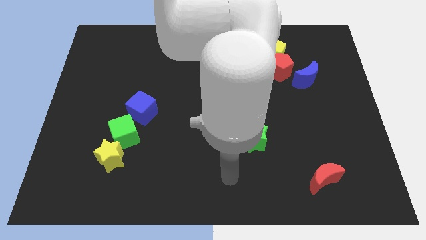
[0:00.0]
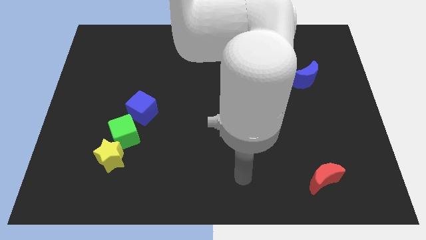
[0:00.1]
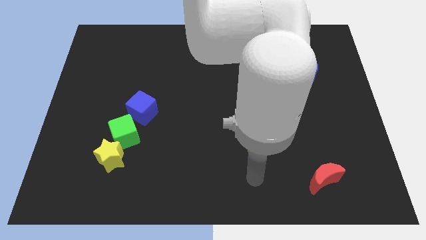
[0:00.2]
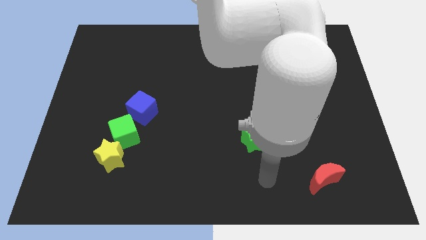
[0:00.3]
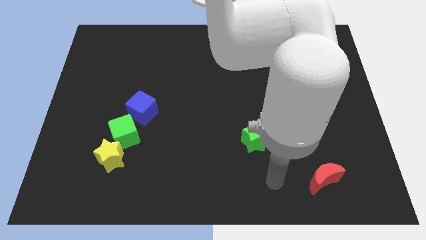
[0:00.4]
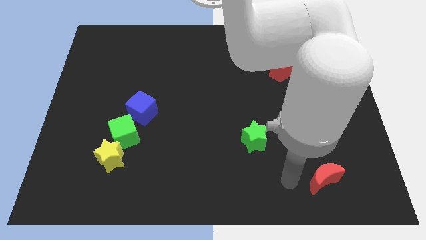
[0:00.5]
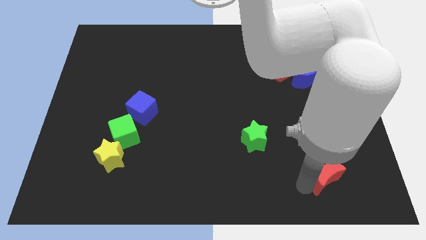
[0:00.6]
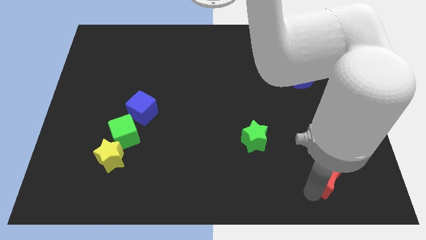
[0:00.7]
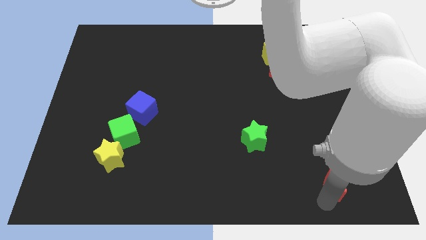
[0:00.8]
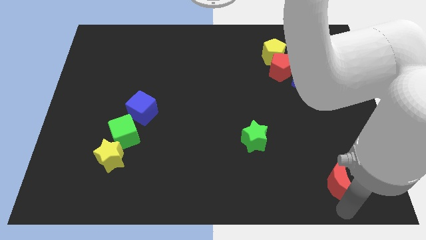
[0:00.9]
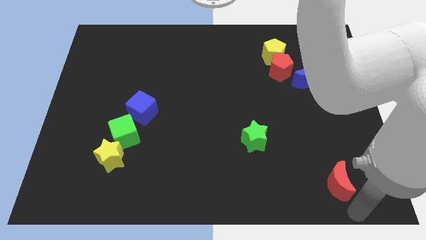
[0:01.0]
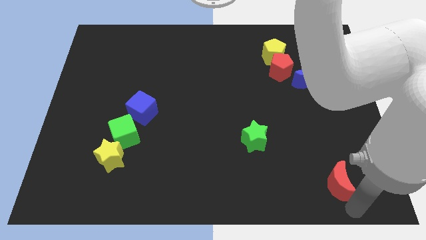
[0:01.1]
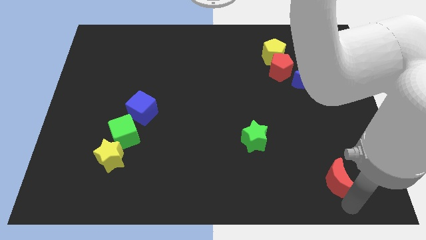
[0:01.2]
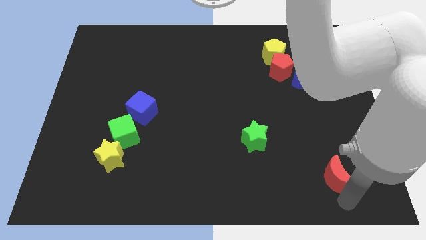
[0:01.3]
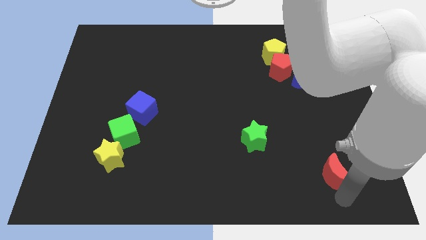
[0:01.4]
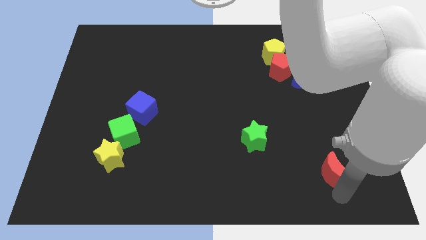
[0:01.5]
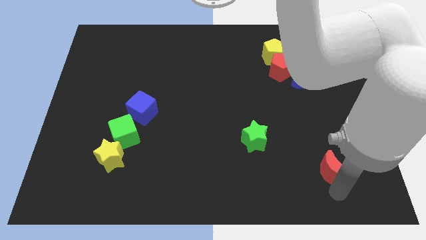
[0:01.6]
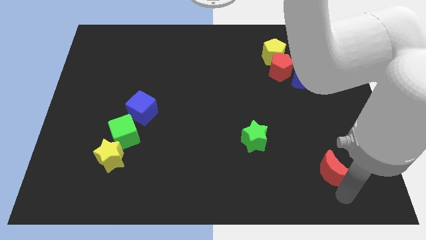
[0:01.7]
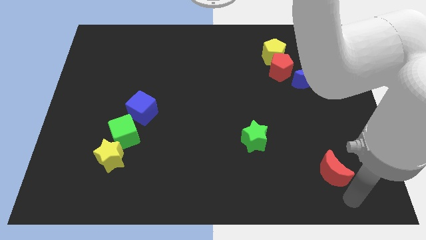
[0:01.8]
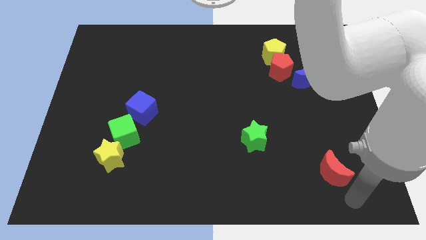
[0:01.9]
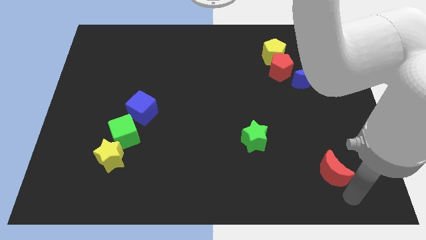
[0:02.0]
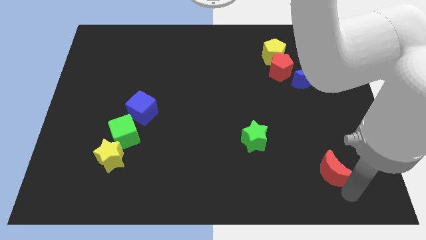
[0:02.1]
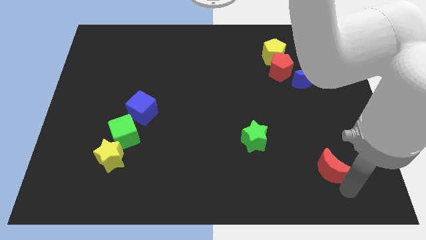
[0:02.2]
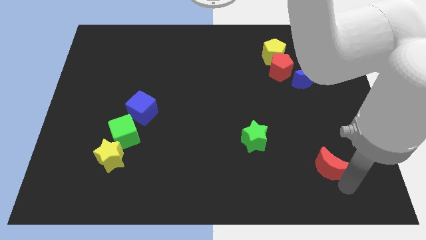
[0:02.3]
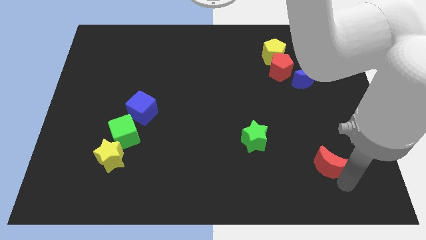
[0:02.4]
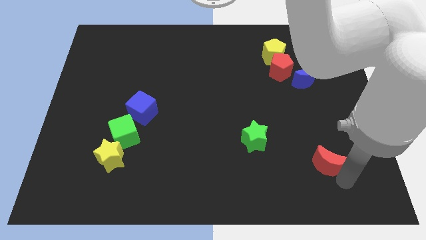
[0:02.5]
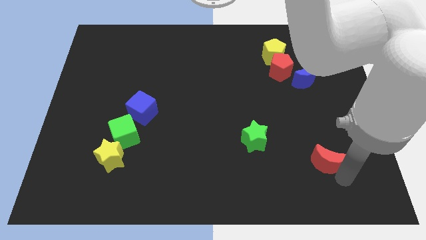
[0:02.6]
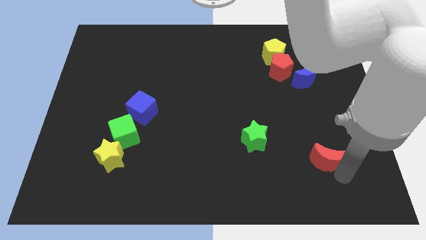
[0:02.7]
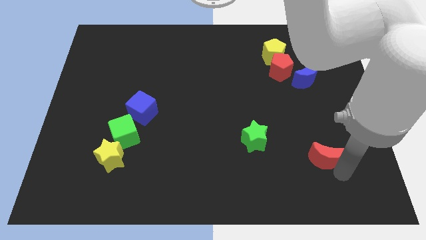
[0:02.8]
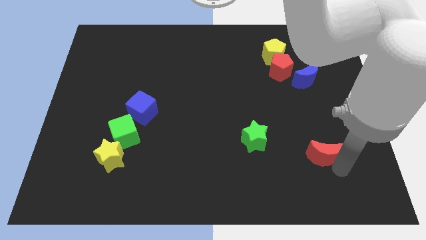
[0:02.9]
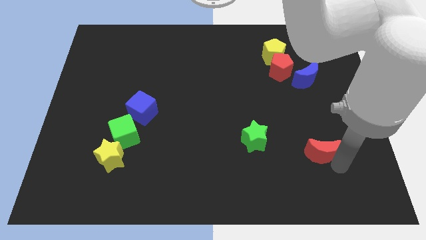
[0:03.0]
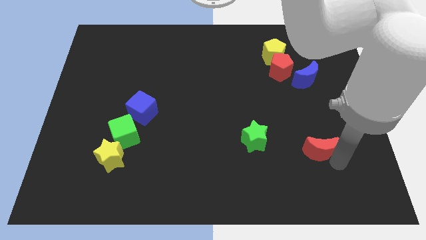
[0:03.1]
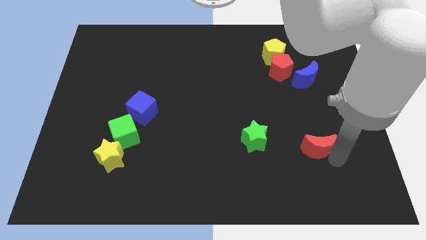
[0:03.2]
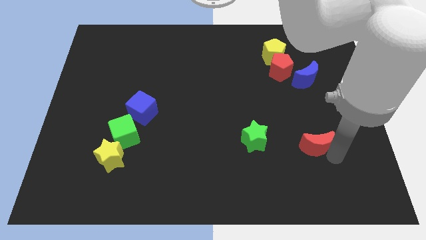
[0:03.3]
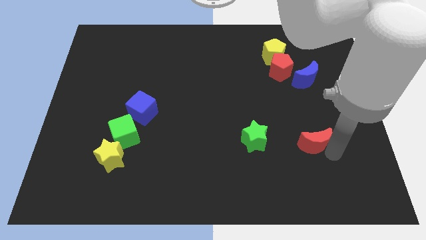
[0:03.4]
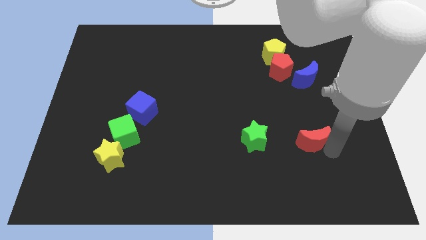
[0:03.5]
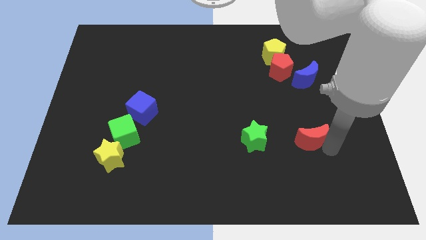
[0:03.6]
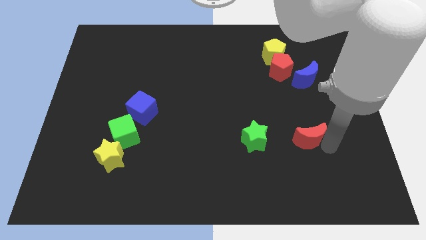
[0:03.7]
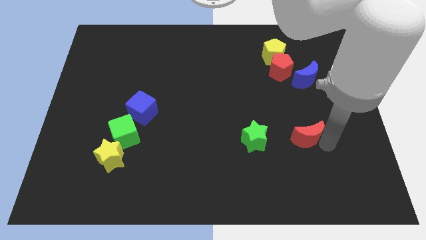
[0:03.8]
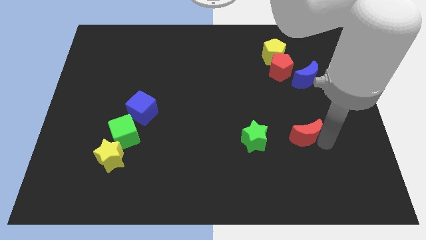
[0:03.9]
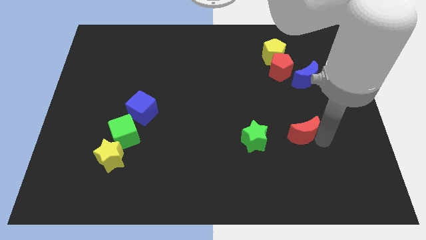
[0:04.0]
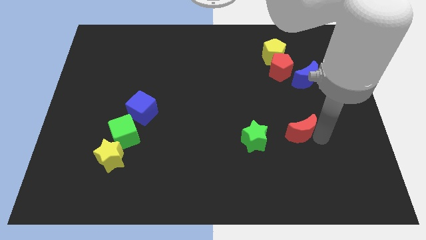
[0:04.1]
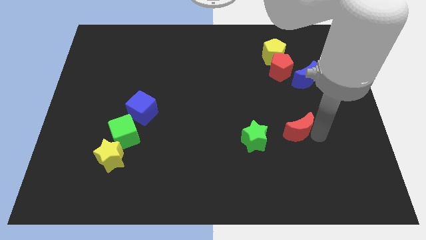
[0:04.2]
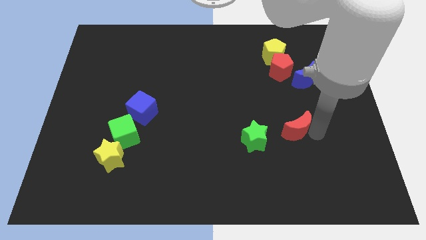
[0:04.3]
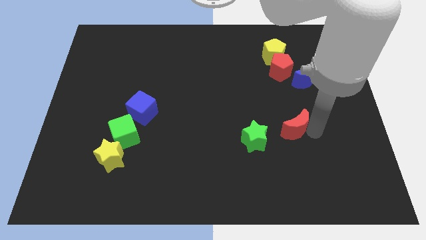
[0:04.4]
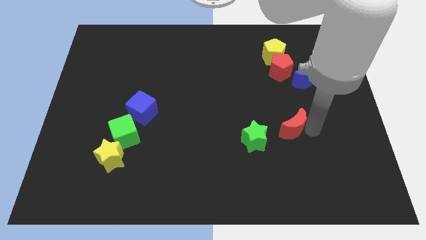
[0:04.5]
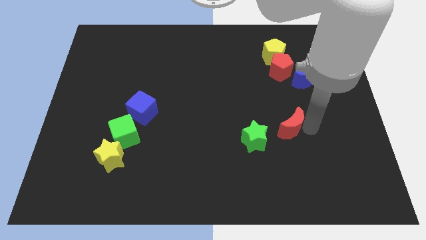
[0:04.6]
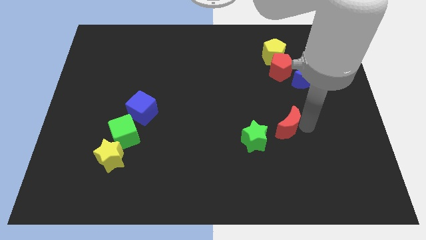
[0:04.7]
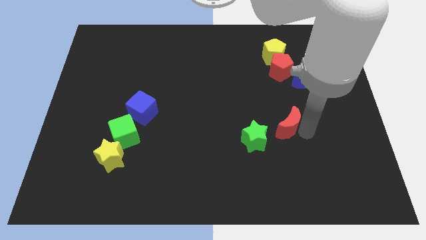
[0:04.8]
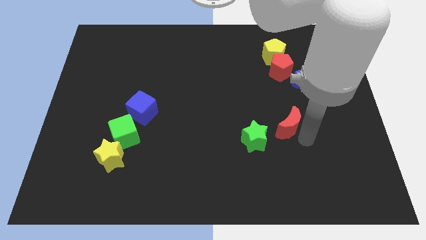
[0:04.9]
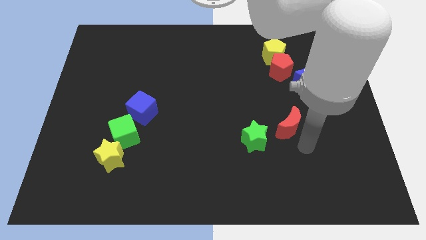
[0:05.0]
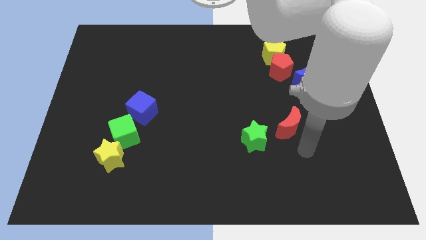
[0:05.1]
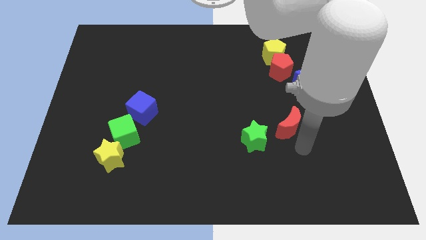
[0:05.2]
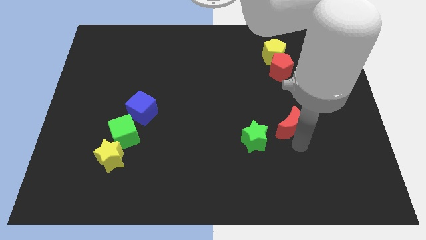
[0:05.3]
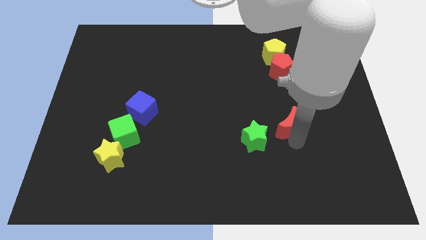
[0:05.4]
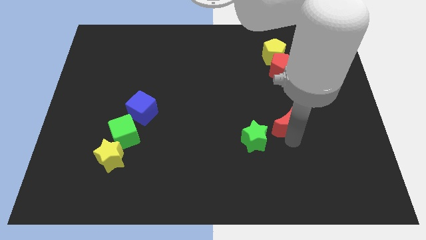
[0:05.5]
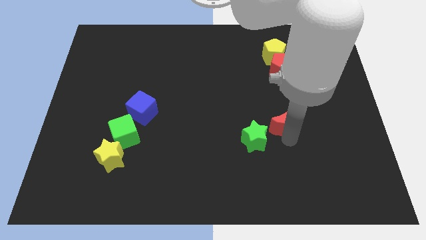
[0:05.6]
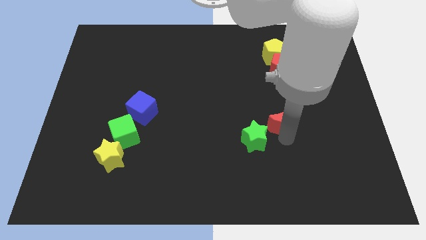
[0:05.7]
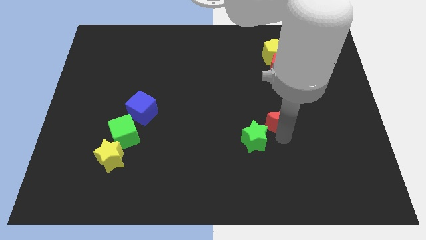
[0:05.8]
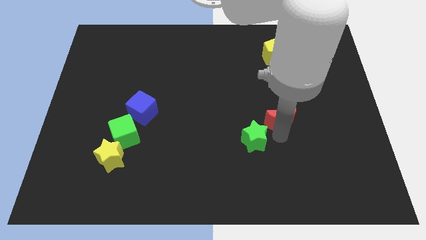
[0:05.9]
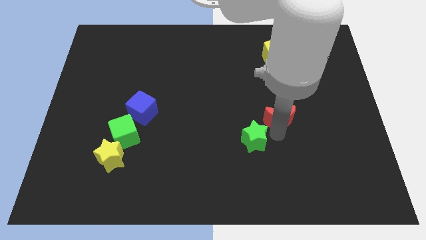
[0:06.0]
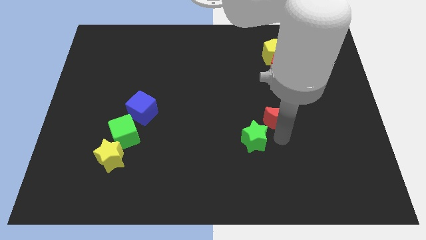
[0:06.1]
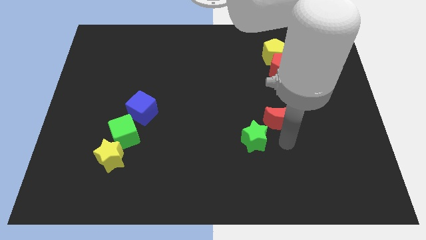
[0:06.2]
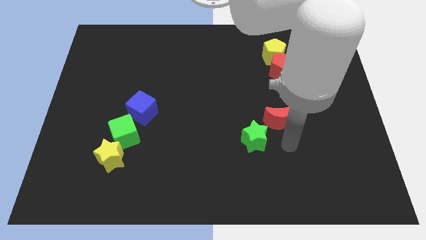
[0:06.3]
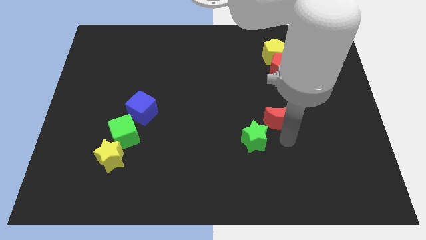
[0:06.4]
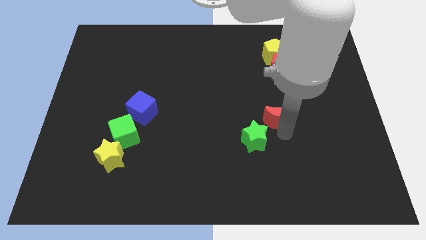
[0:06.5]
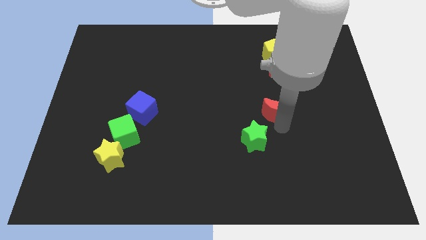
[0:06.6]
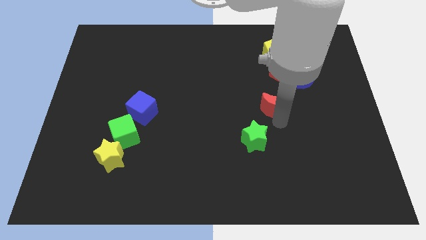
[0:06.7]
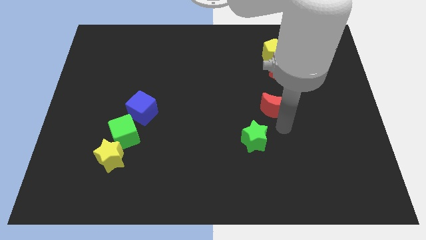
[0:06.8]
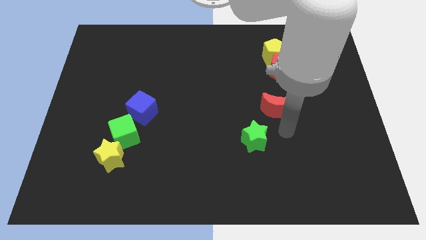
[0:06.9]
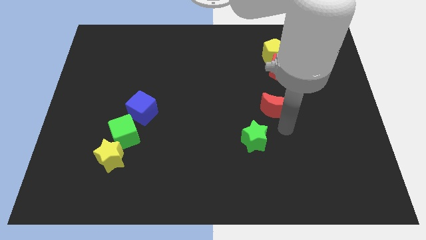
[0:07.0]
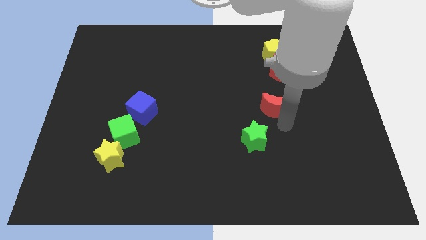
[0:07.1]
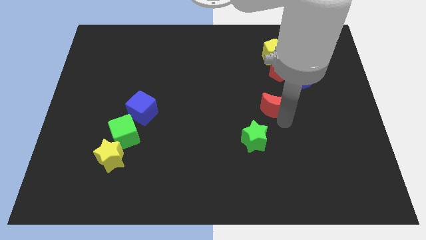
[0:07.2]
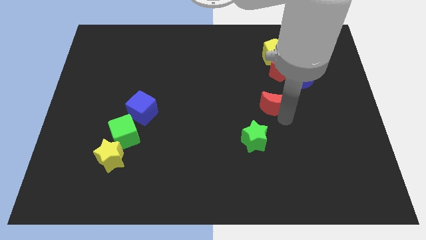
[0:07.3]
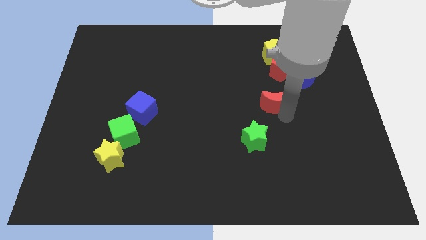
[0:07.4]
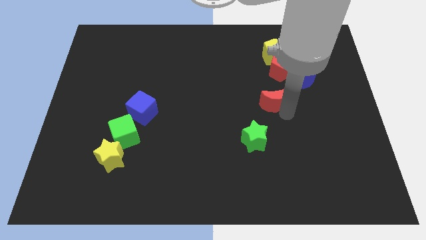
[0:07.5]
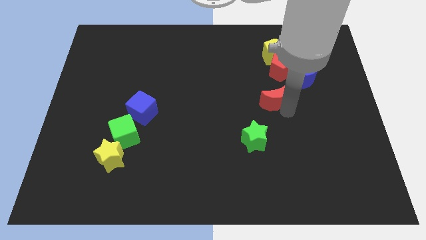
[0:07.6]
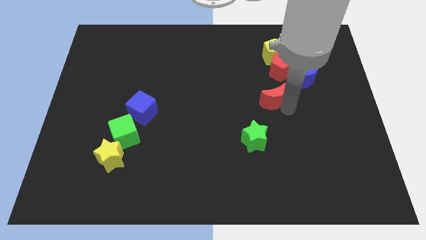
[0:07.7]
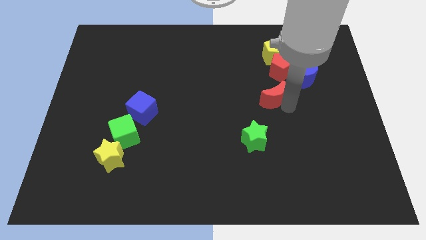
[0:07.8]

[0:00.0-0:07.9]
put the red moon to the bottom left of the red pentagon
